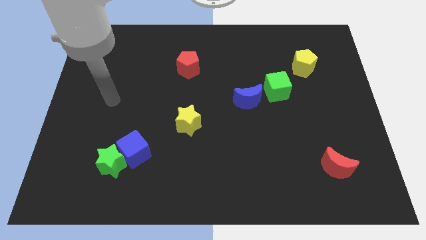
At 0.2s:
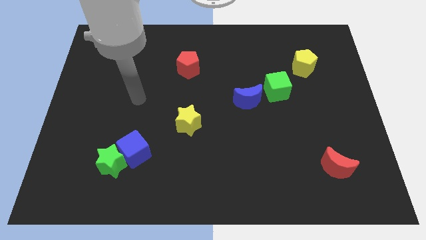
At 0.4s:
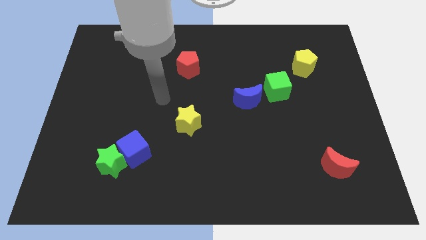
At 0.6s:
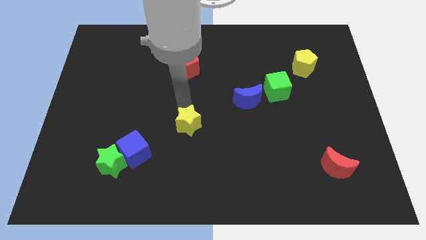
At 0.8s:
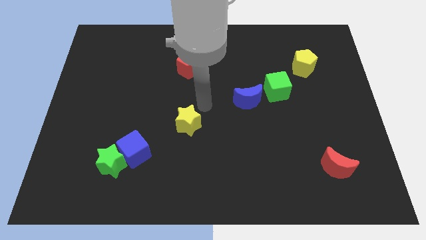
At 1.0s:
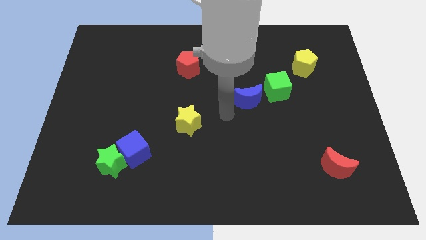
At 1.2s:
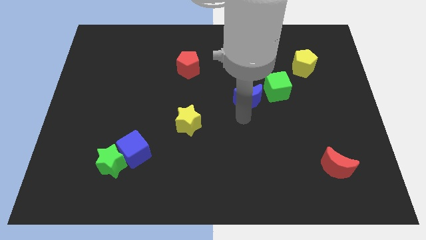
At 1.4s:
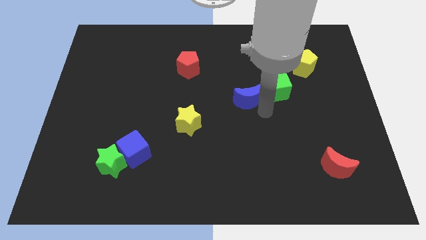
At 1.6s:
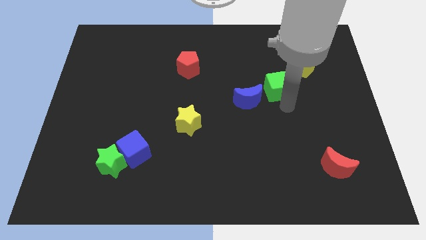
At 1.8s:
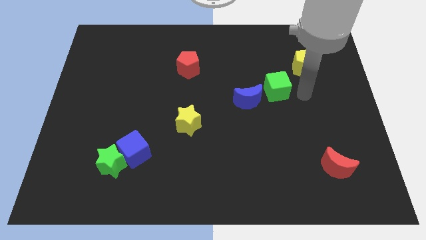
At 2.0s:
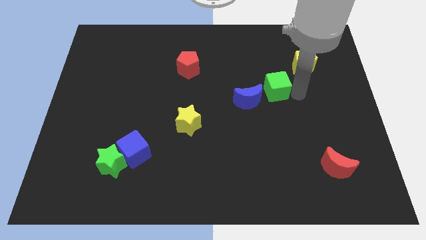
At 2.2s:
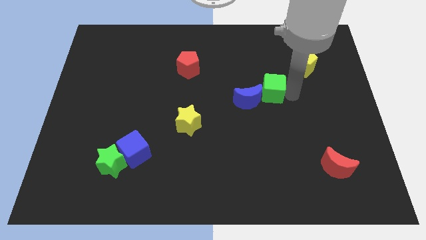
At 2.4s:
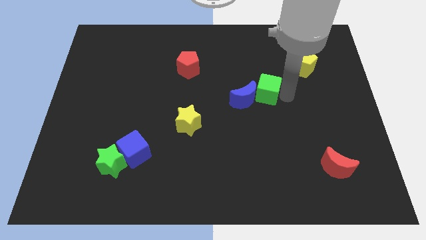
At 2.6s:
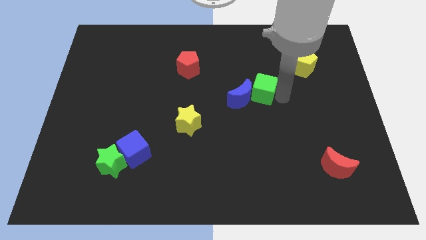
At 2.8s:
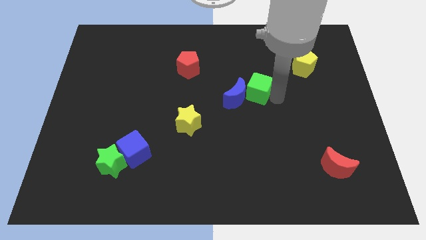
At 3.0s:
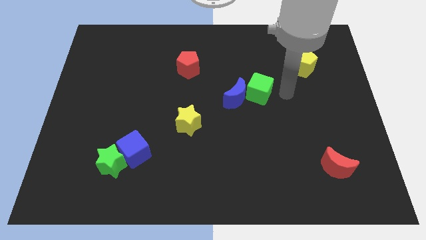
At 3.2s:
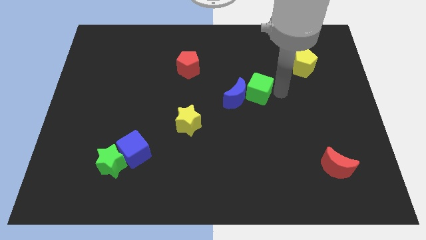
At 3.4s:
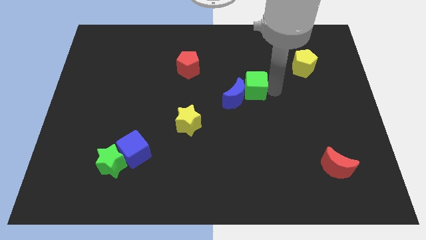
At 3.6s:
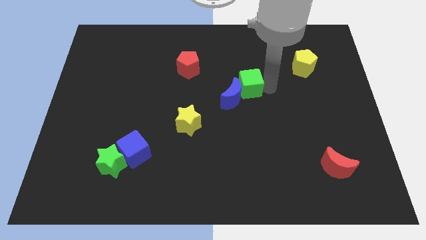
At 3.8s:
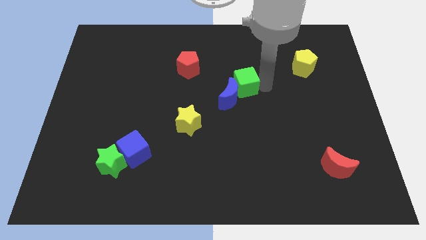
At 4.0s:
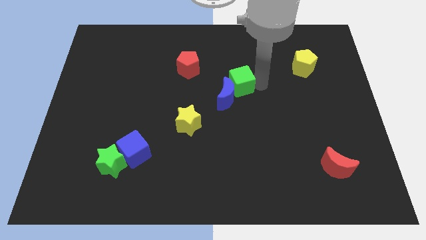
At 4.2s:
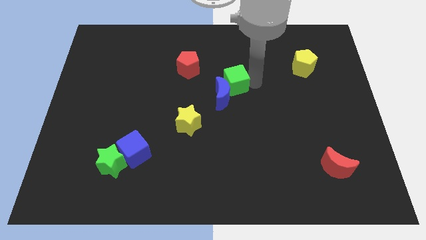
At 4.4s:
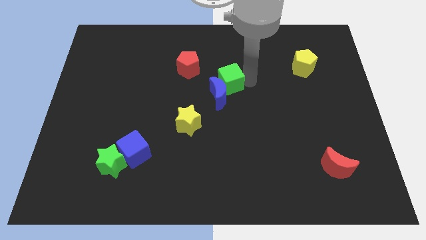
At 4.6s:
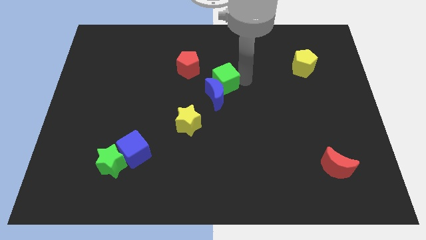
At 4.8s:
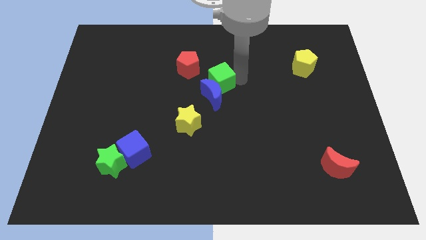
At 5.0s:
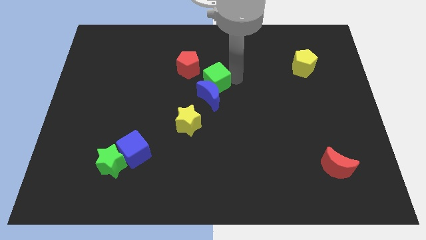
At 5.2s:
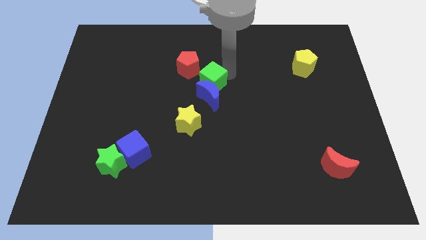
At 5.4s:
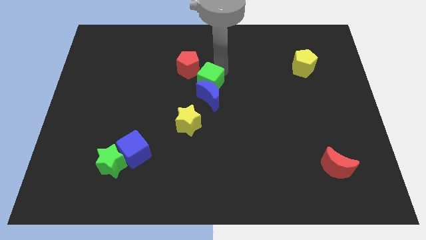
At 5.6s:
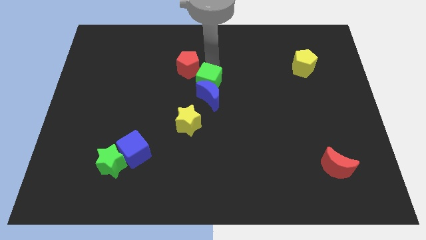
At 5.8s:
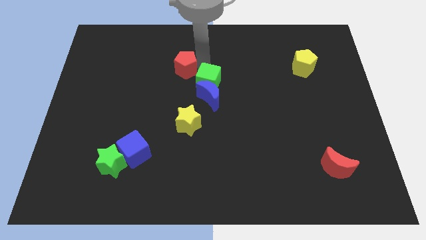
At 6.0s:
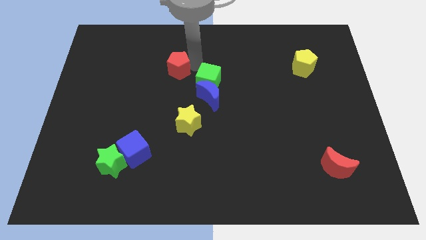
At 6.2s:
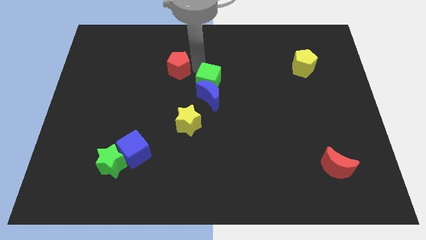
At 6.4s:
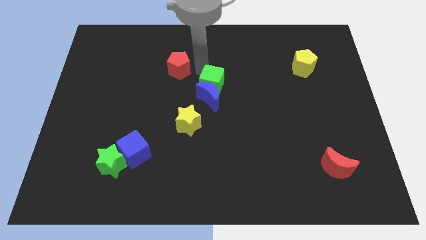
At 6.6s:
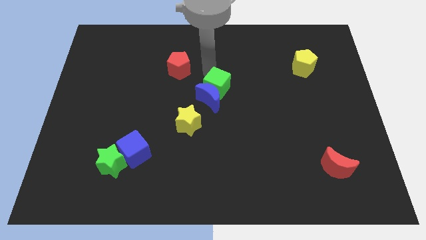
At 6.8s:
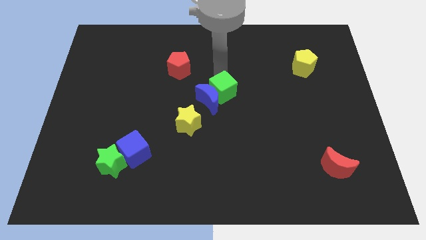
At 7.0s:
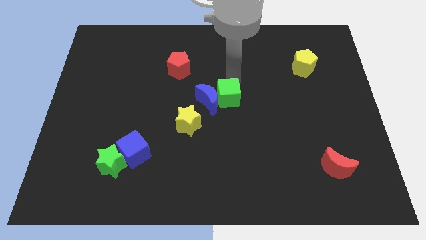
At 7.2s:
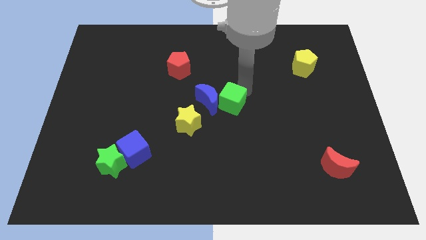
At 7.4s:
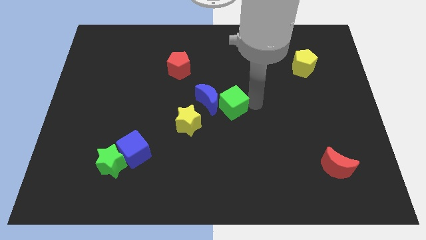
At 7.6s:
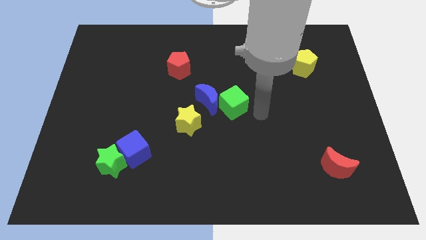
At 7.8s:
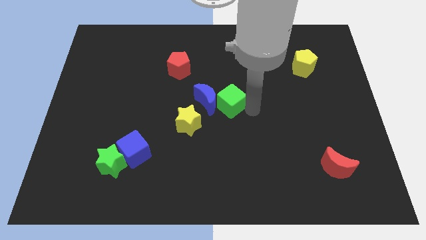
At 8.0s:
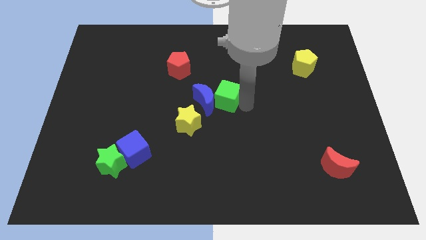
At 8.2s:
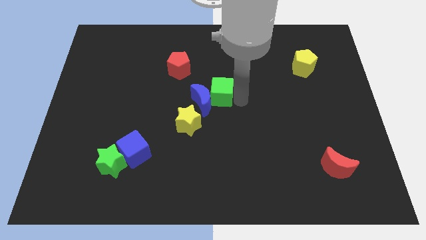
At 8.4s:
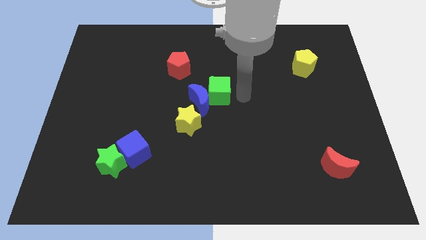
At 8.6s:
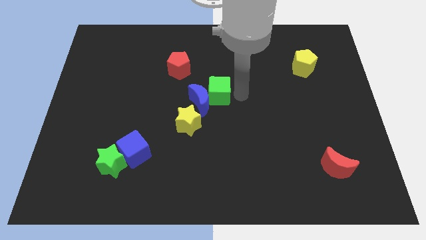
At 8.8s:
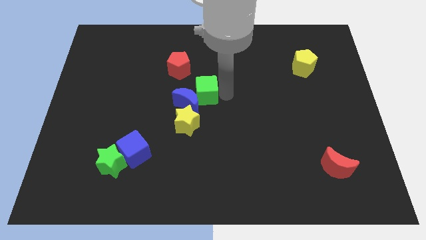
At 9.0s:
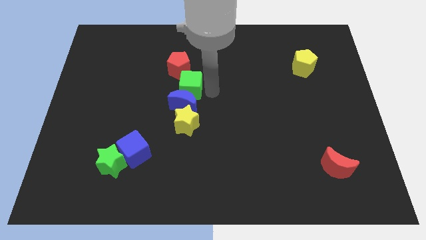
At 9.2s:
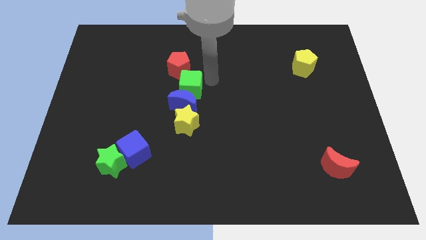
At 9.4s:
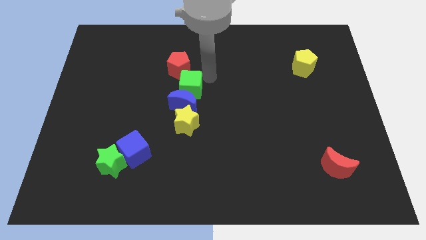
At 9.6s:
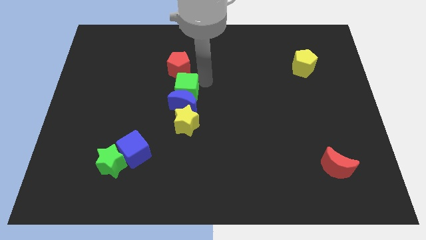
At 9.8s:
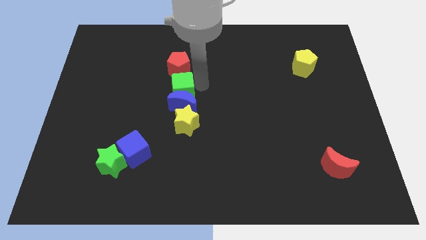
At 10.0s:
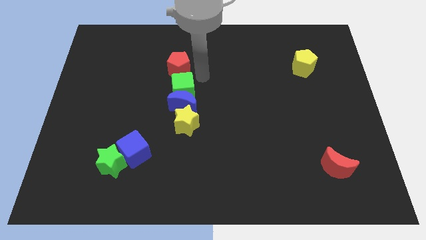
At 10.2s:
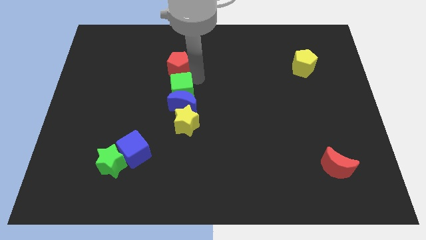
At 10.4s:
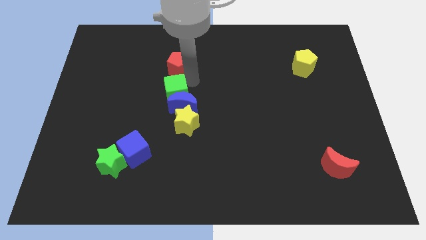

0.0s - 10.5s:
slide the green cube diagonally up and to the left of the yellow star

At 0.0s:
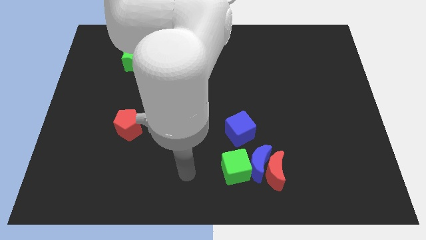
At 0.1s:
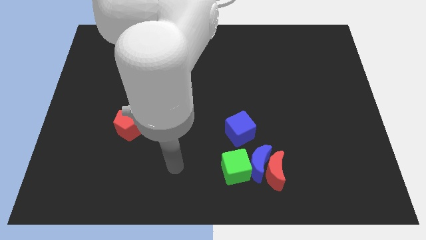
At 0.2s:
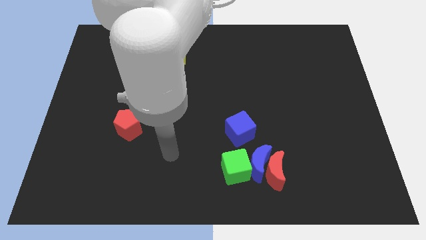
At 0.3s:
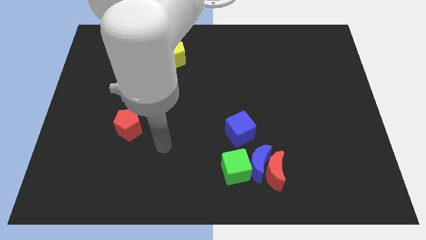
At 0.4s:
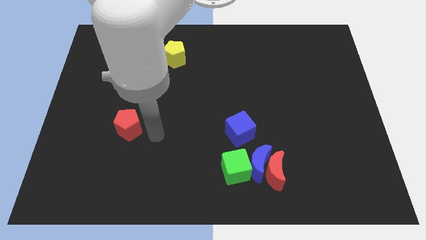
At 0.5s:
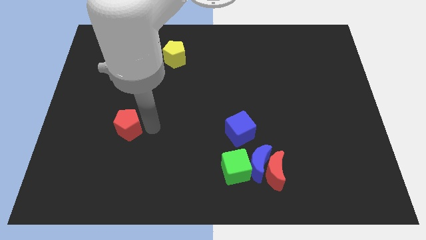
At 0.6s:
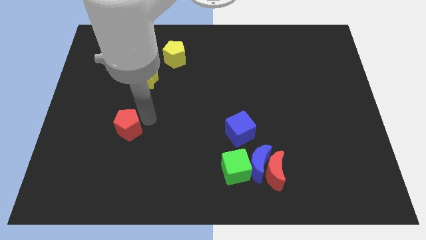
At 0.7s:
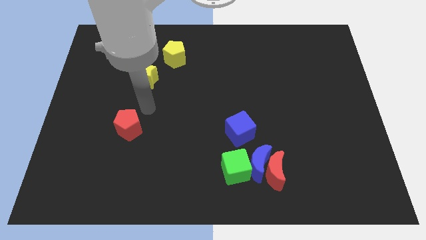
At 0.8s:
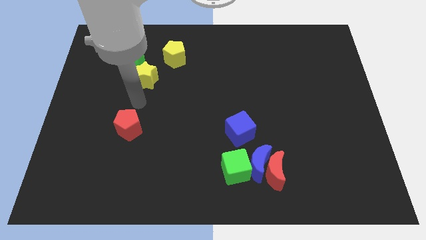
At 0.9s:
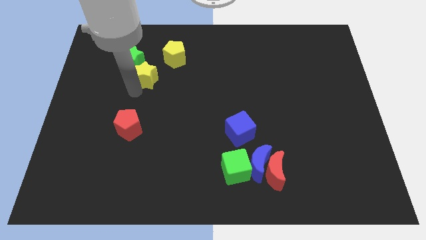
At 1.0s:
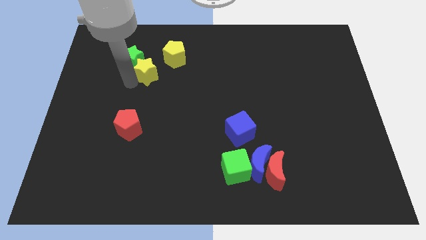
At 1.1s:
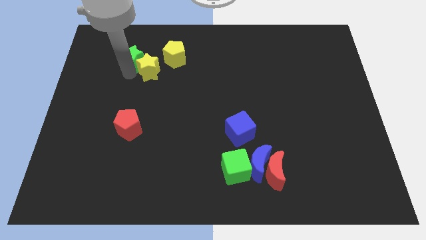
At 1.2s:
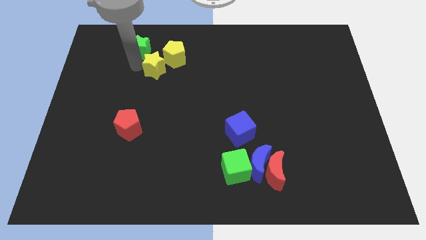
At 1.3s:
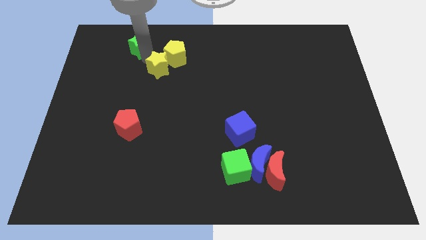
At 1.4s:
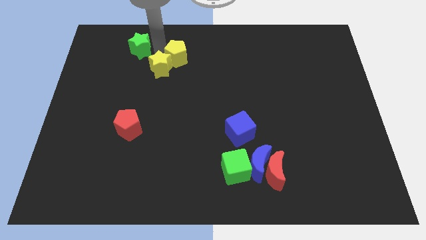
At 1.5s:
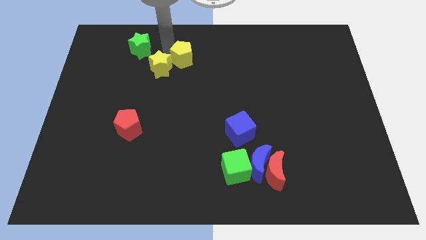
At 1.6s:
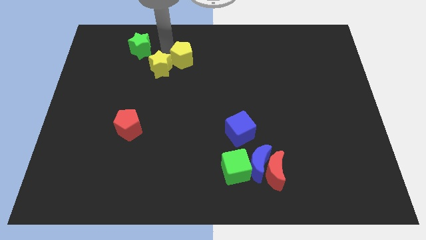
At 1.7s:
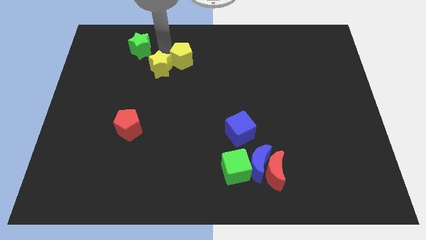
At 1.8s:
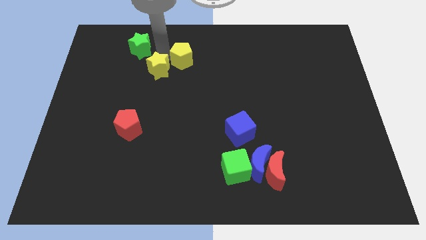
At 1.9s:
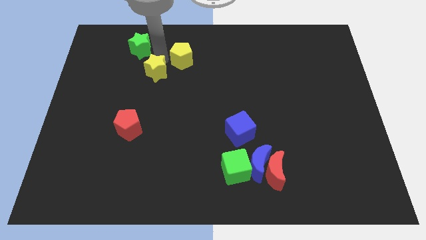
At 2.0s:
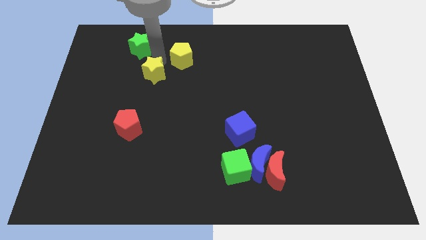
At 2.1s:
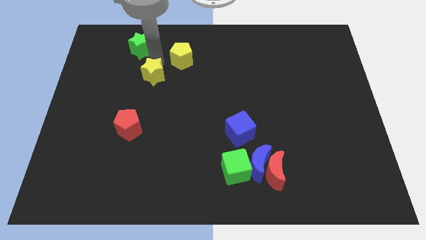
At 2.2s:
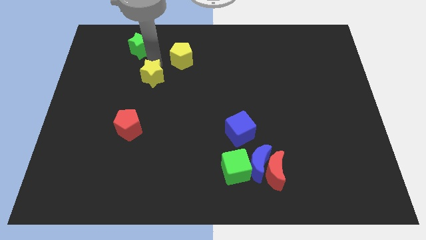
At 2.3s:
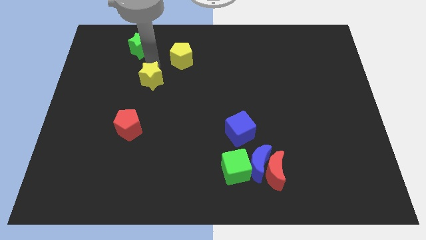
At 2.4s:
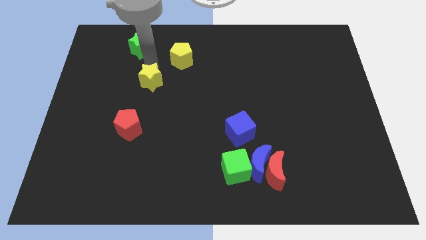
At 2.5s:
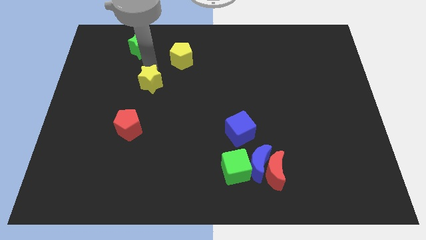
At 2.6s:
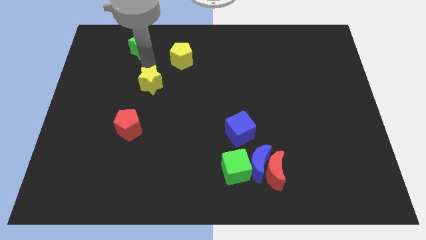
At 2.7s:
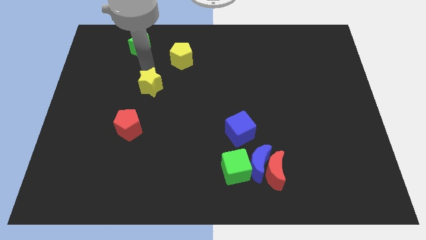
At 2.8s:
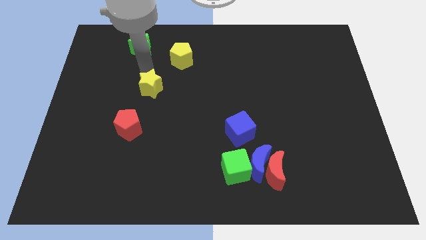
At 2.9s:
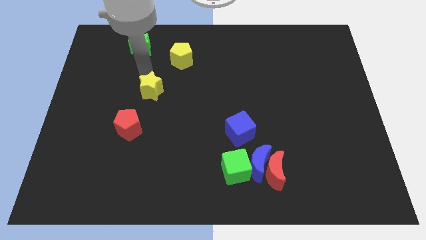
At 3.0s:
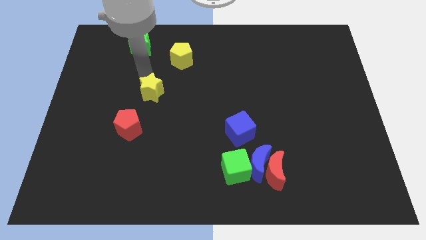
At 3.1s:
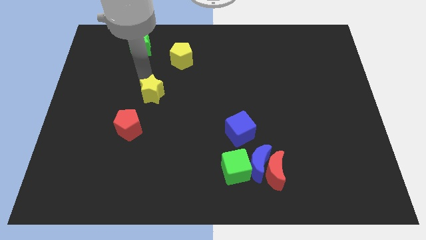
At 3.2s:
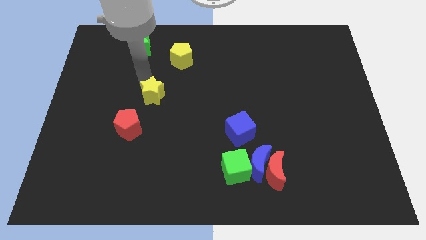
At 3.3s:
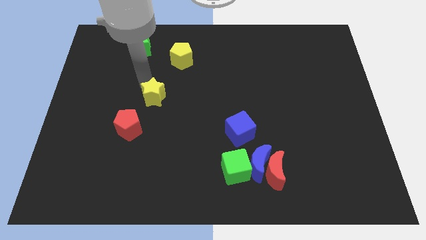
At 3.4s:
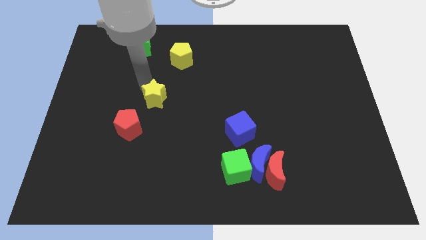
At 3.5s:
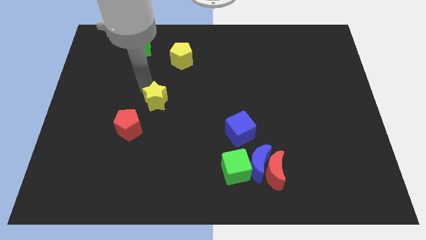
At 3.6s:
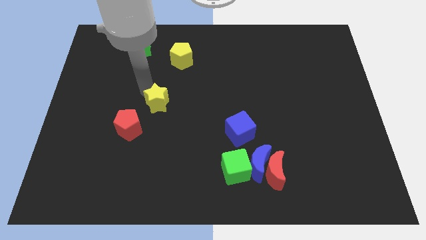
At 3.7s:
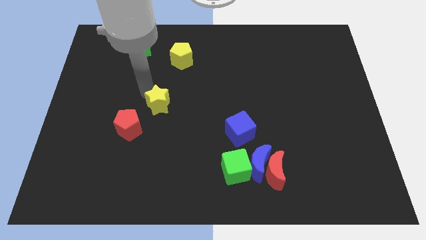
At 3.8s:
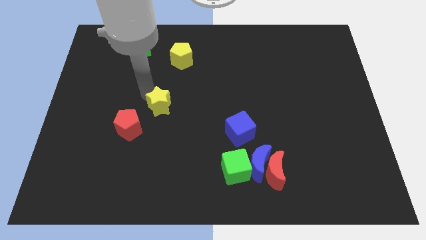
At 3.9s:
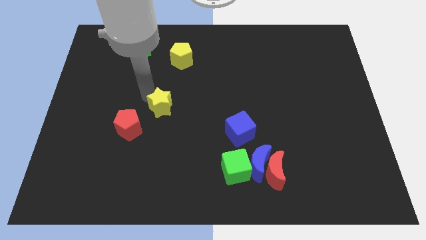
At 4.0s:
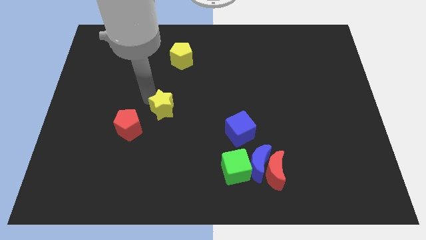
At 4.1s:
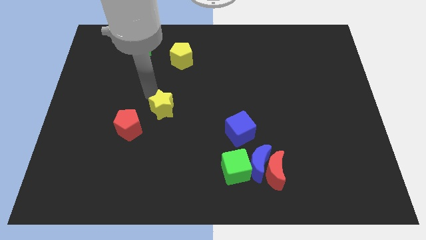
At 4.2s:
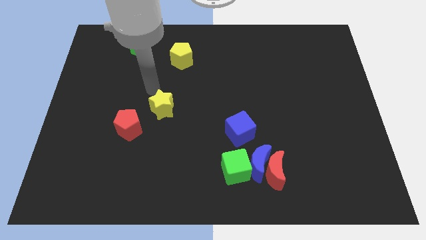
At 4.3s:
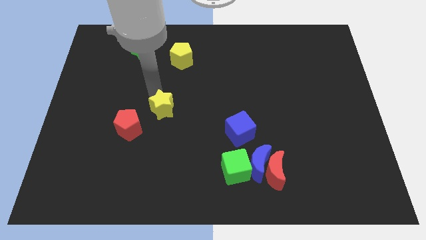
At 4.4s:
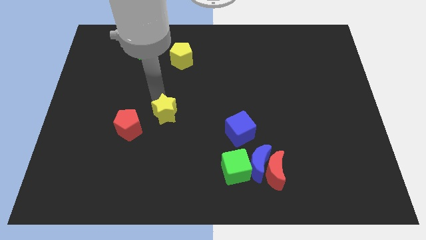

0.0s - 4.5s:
push the yellow star right of the red pentagon
